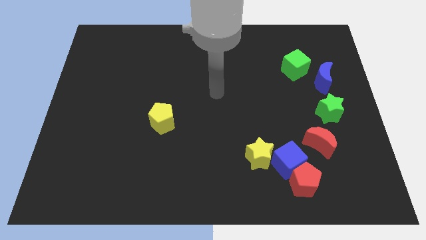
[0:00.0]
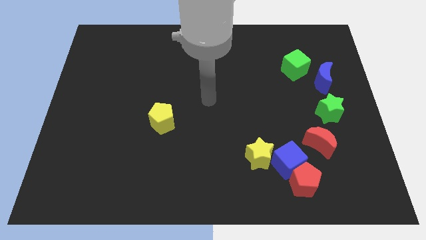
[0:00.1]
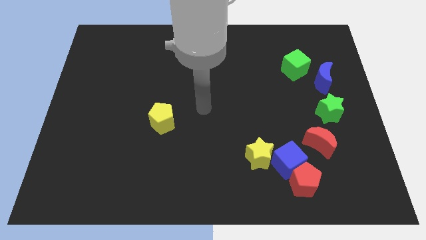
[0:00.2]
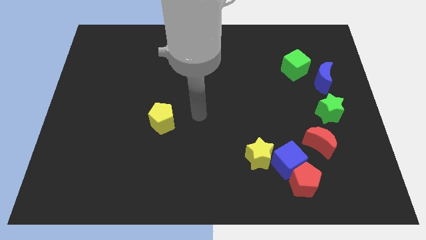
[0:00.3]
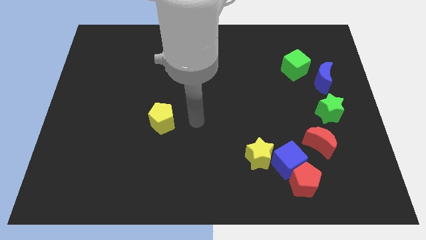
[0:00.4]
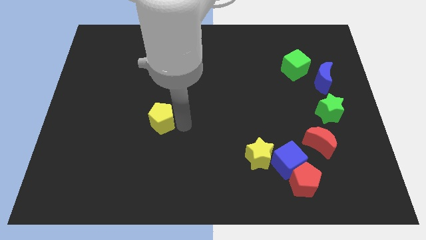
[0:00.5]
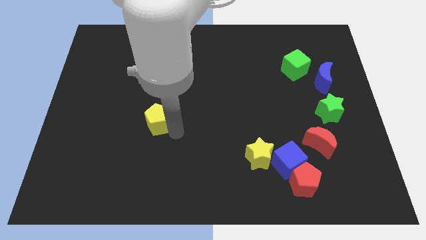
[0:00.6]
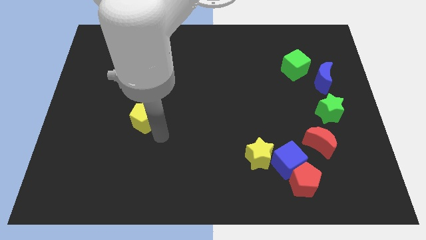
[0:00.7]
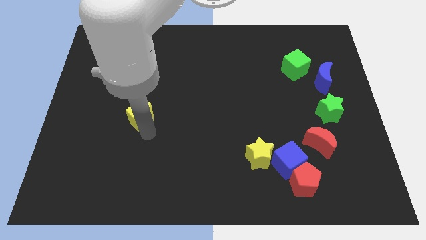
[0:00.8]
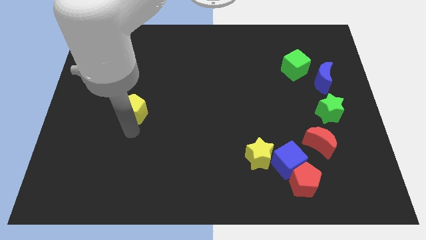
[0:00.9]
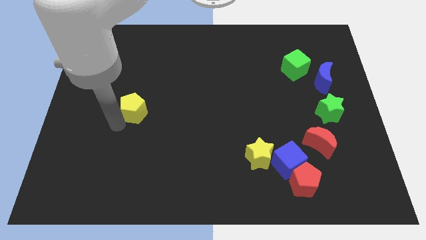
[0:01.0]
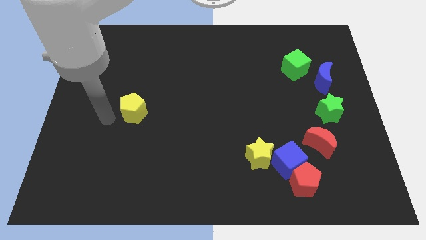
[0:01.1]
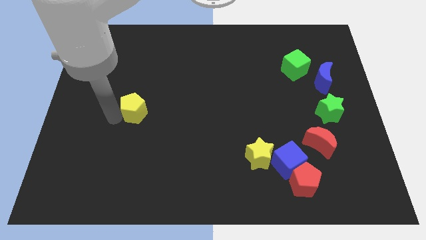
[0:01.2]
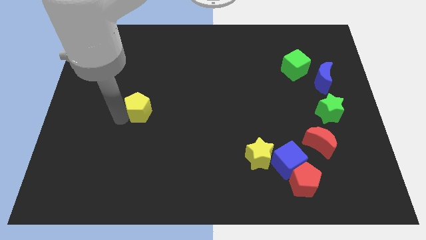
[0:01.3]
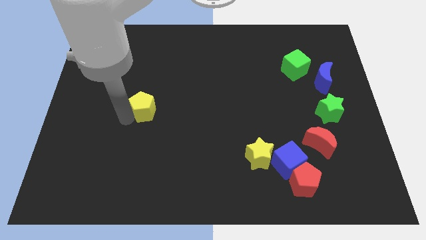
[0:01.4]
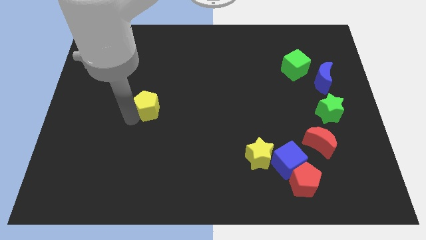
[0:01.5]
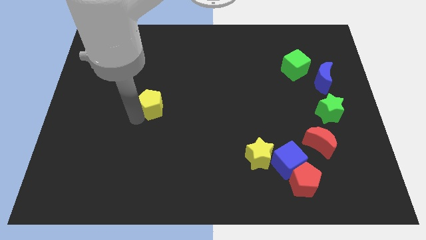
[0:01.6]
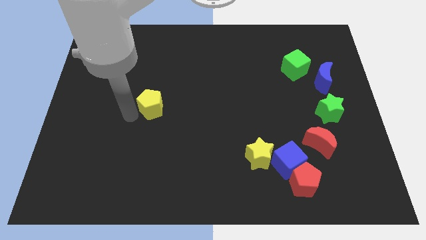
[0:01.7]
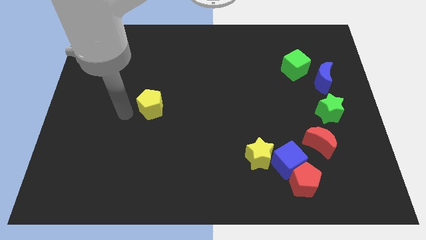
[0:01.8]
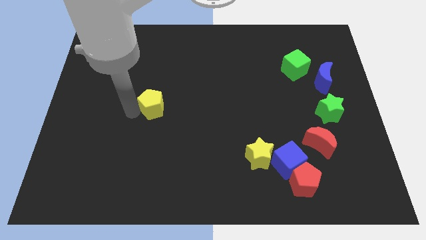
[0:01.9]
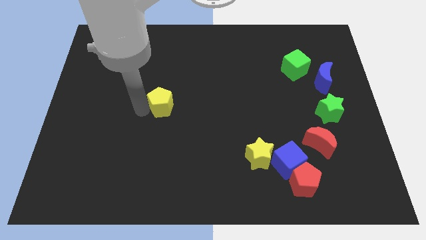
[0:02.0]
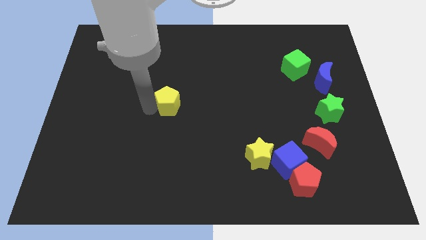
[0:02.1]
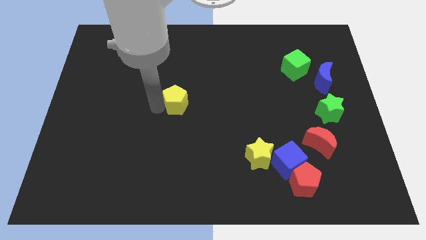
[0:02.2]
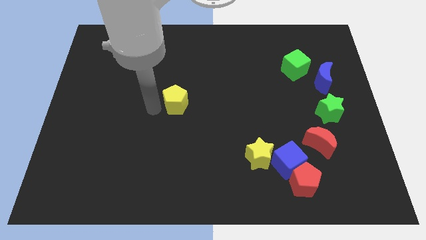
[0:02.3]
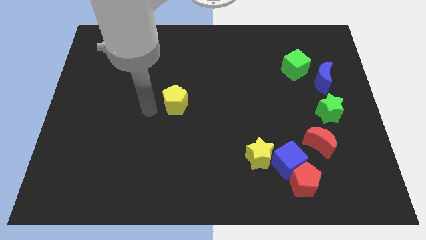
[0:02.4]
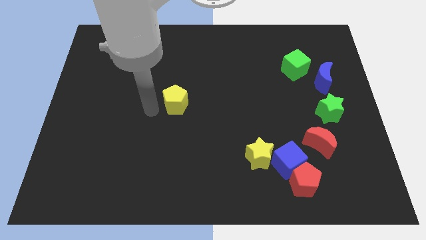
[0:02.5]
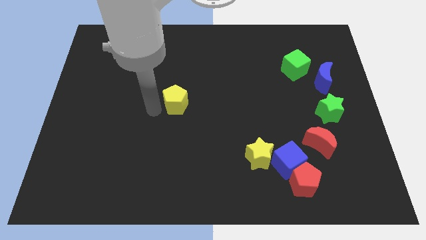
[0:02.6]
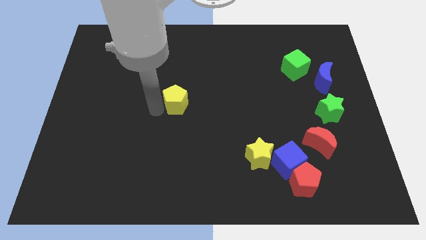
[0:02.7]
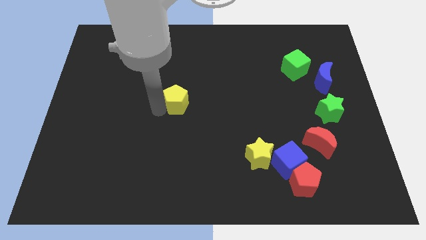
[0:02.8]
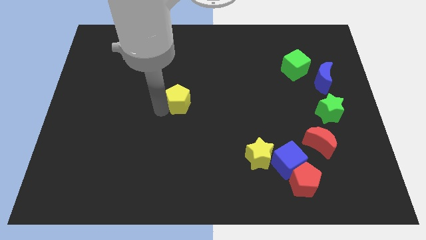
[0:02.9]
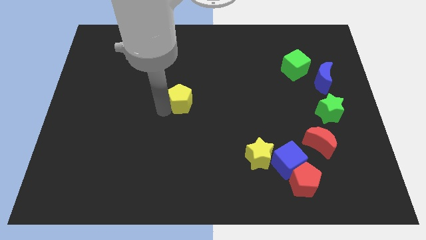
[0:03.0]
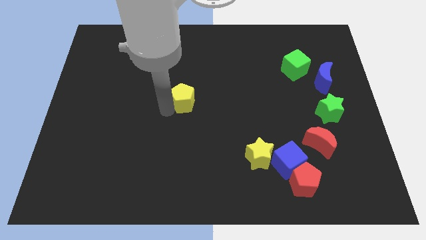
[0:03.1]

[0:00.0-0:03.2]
slightly slide the yellow pentagon up and then to the right

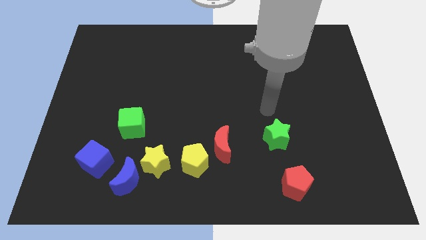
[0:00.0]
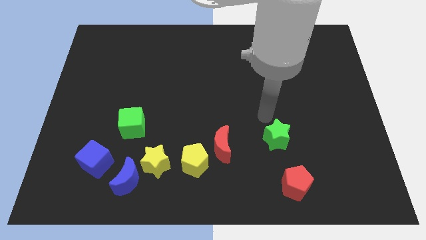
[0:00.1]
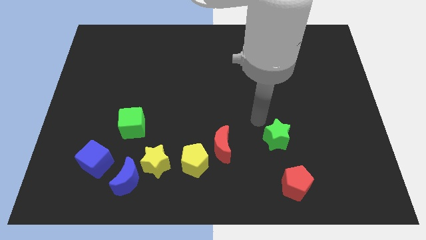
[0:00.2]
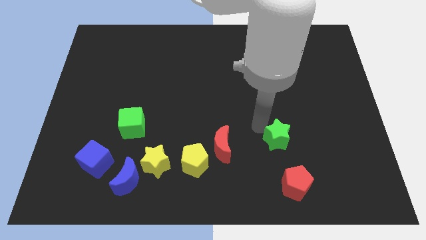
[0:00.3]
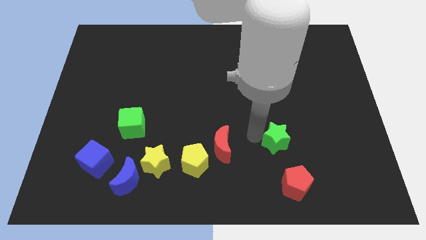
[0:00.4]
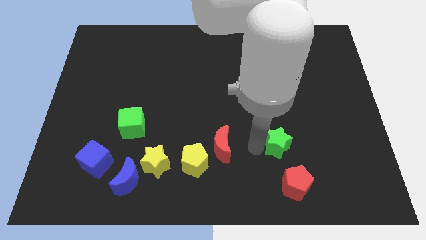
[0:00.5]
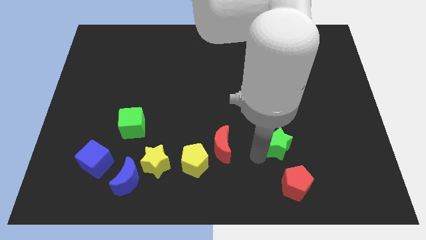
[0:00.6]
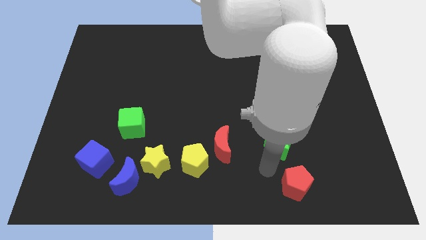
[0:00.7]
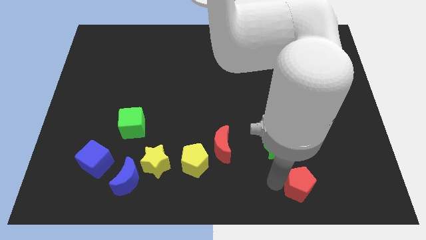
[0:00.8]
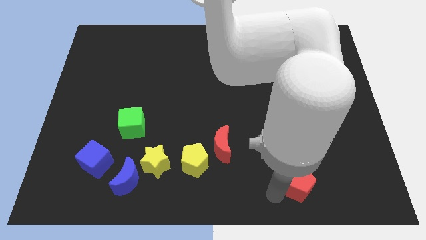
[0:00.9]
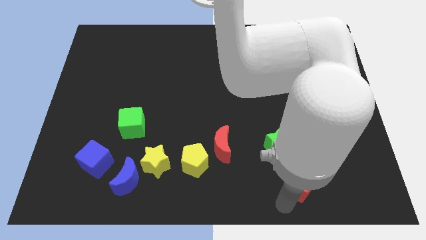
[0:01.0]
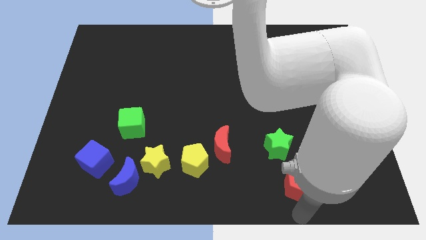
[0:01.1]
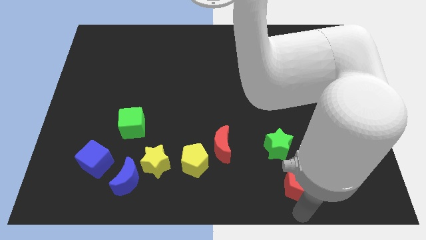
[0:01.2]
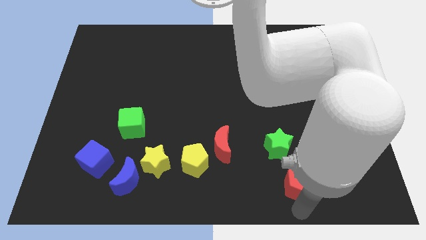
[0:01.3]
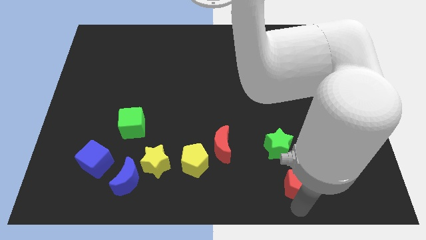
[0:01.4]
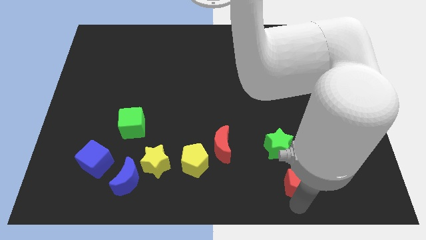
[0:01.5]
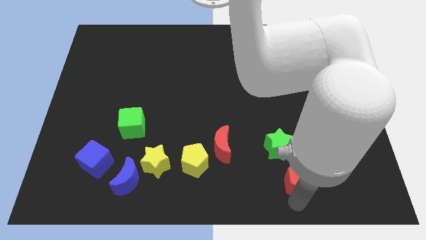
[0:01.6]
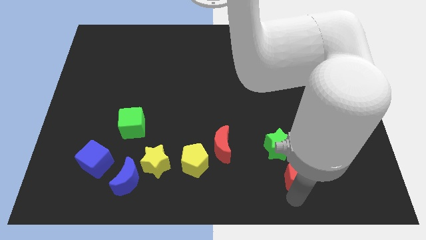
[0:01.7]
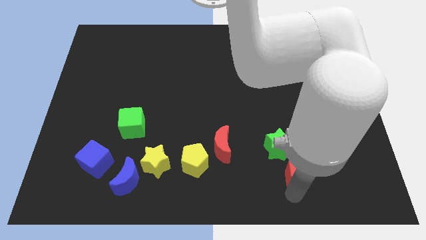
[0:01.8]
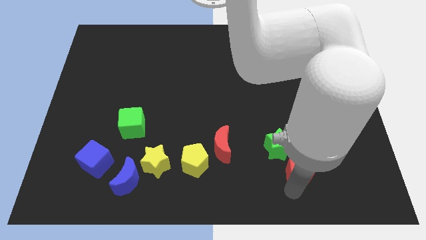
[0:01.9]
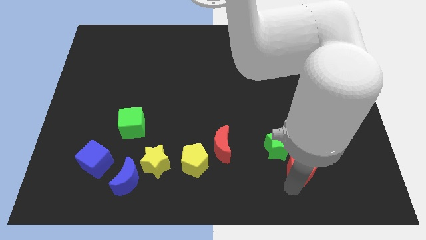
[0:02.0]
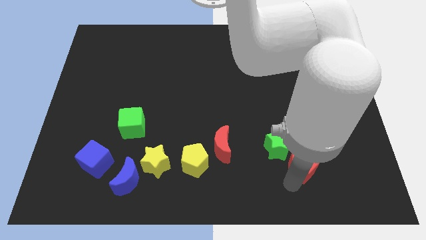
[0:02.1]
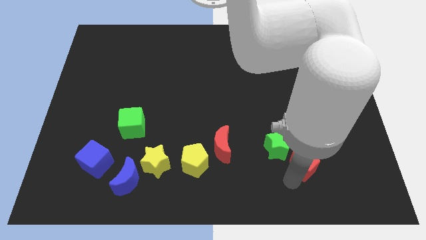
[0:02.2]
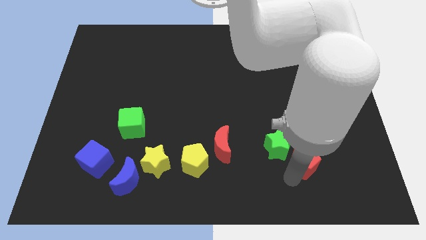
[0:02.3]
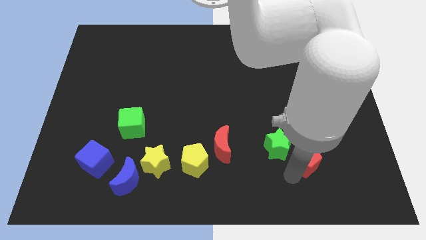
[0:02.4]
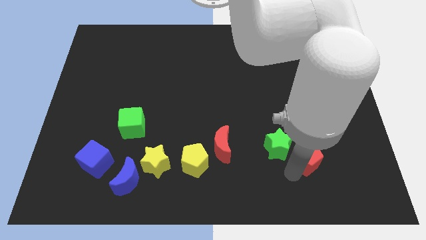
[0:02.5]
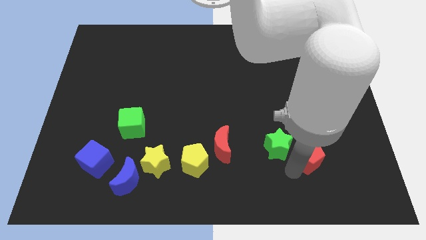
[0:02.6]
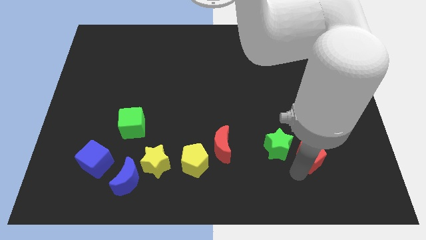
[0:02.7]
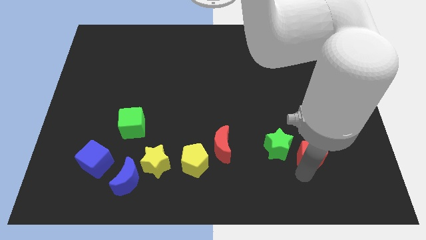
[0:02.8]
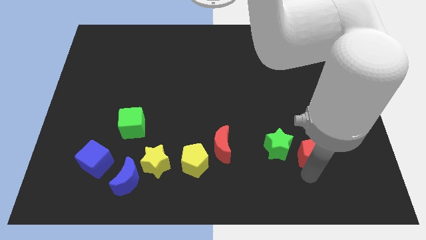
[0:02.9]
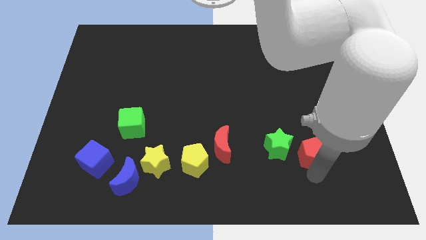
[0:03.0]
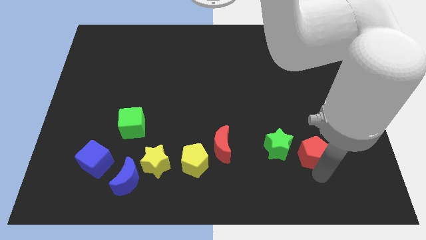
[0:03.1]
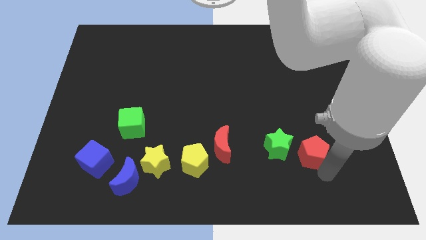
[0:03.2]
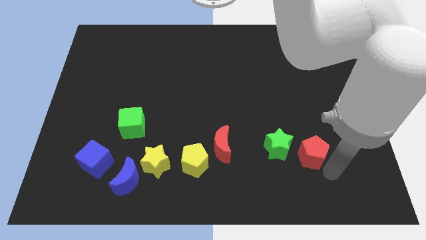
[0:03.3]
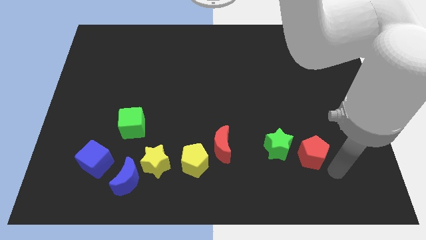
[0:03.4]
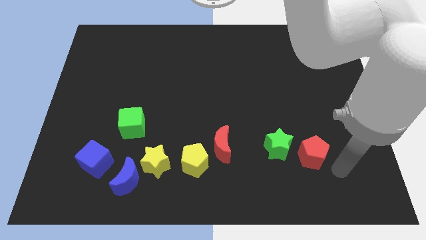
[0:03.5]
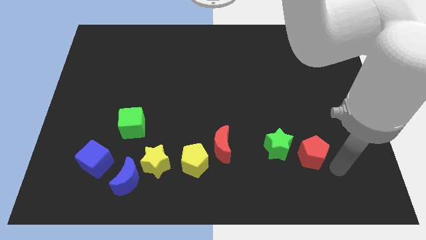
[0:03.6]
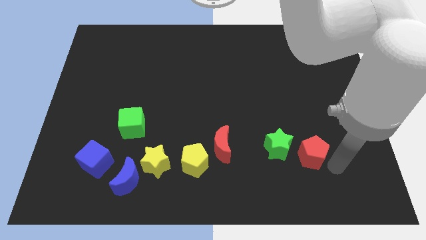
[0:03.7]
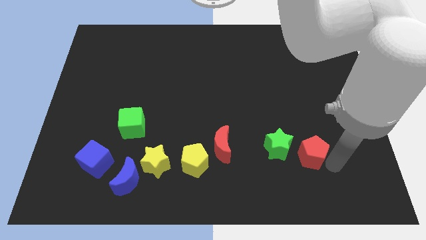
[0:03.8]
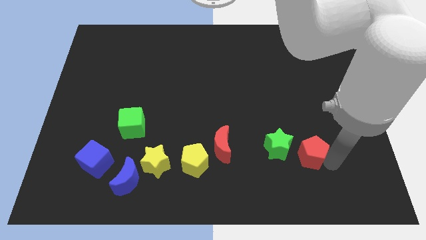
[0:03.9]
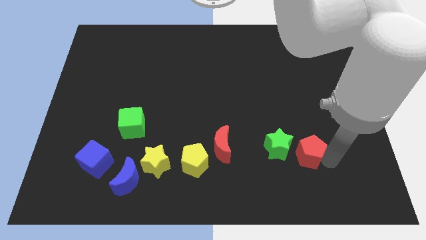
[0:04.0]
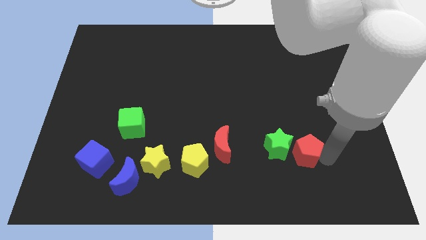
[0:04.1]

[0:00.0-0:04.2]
slightly slide the red pentagon up

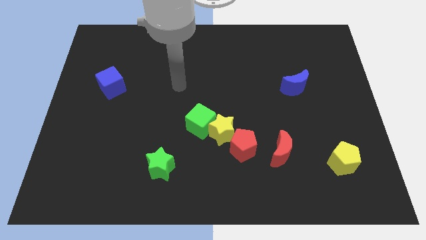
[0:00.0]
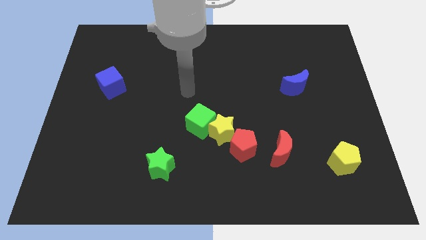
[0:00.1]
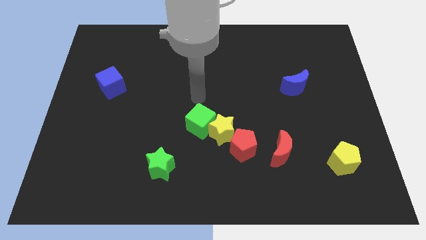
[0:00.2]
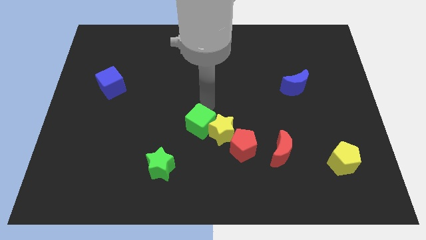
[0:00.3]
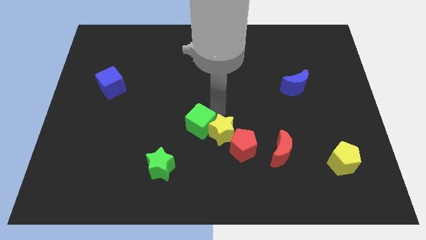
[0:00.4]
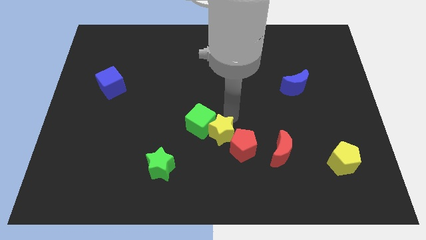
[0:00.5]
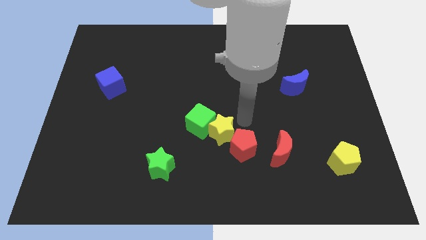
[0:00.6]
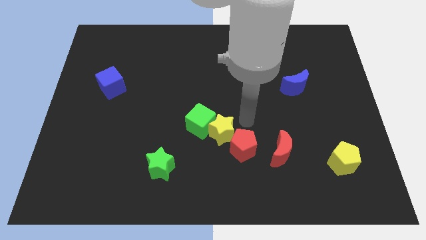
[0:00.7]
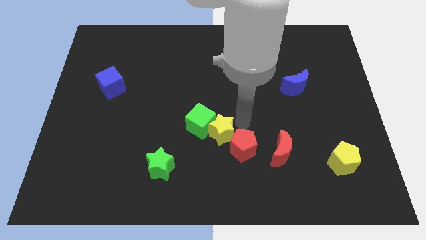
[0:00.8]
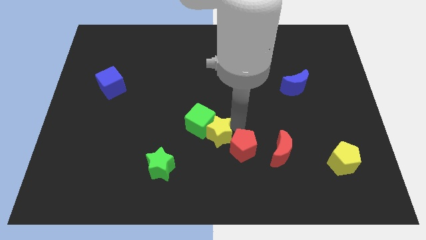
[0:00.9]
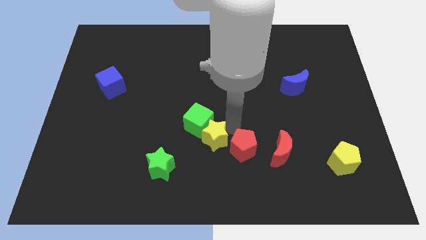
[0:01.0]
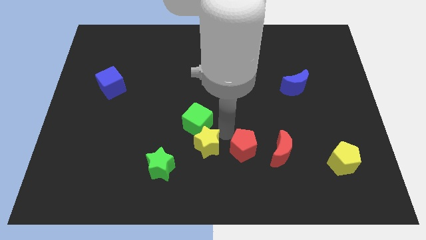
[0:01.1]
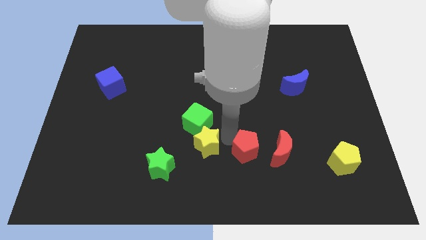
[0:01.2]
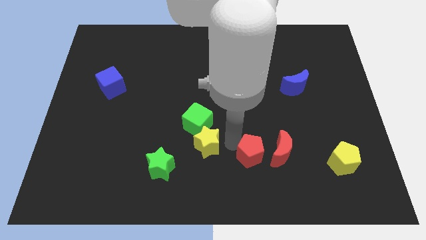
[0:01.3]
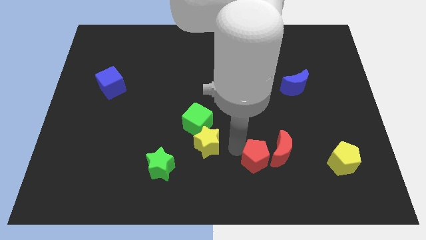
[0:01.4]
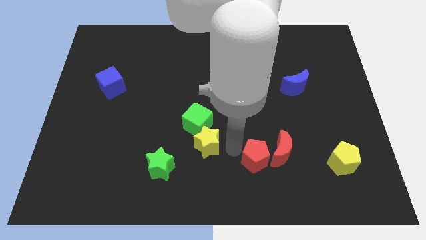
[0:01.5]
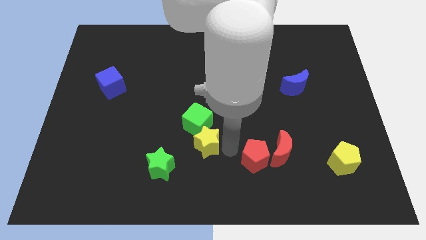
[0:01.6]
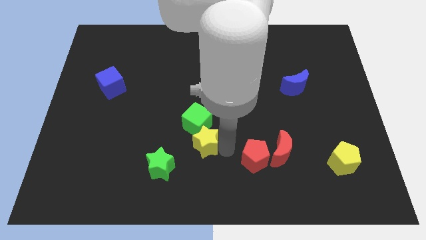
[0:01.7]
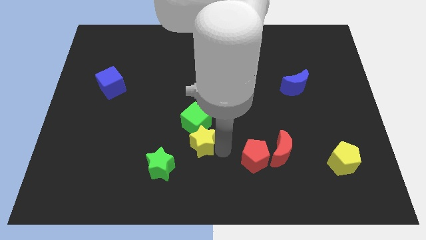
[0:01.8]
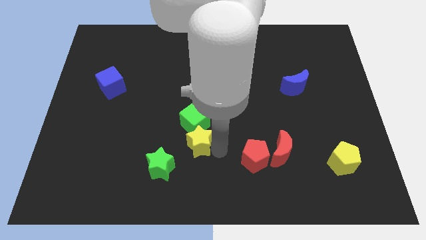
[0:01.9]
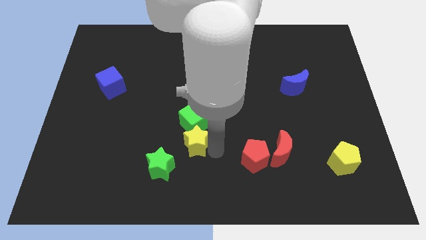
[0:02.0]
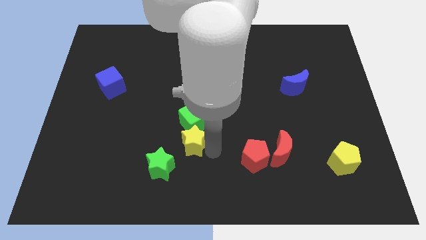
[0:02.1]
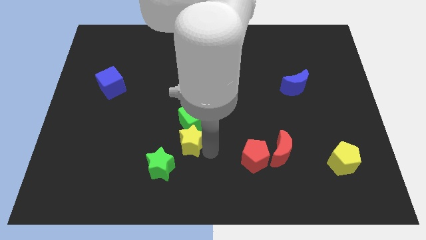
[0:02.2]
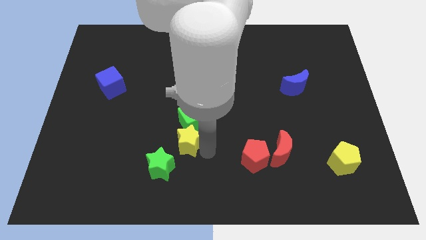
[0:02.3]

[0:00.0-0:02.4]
slightly slide the yellow star to the left
